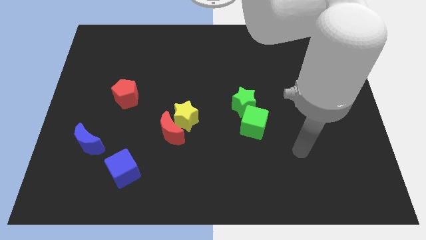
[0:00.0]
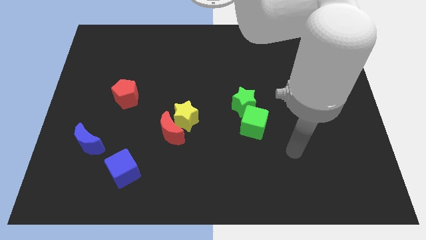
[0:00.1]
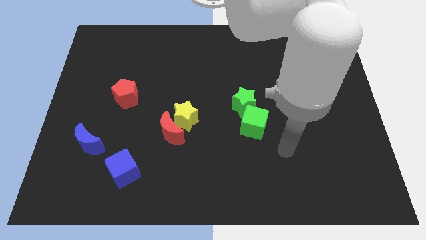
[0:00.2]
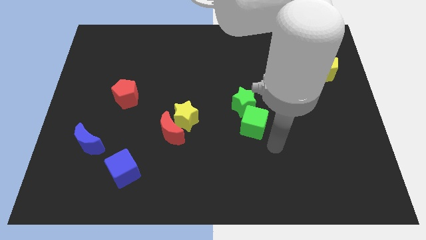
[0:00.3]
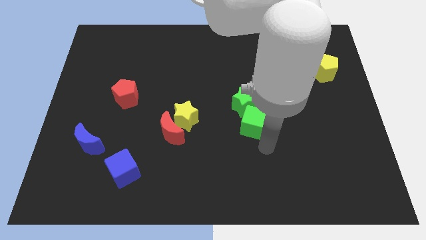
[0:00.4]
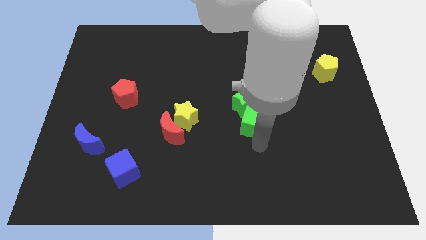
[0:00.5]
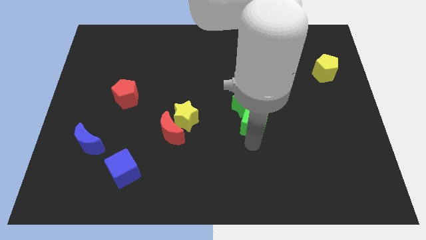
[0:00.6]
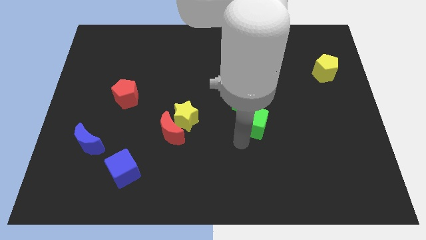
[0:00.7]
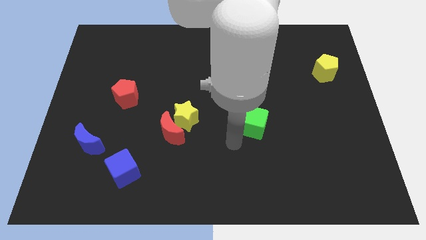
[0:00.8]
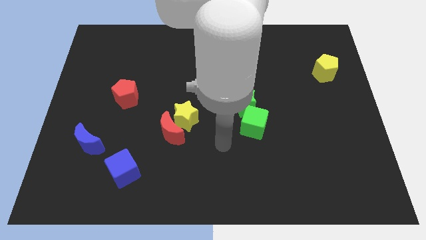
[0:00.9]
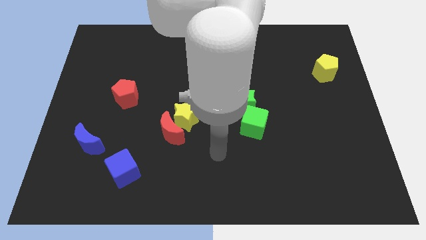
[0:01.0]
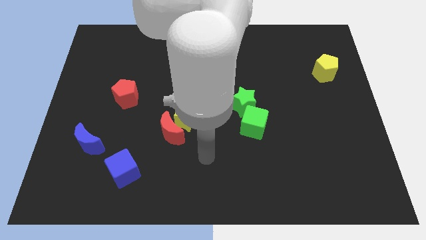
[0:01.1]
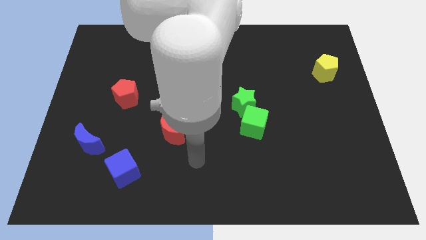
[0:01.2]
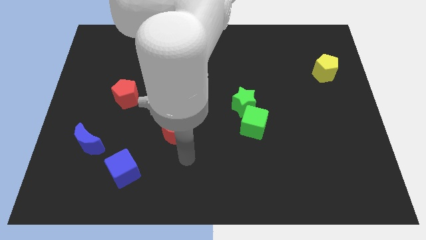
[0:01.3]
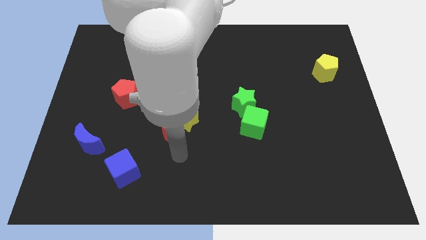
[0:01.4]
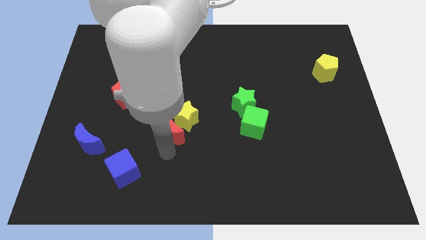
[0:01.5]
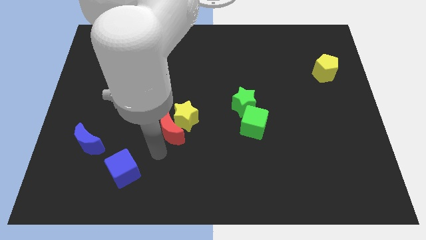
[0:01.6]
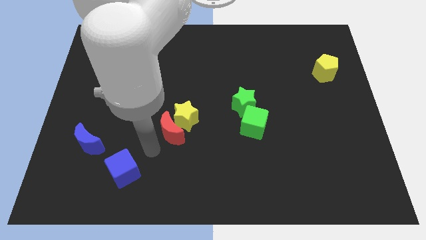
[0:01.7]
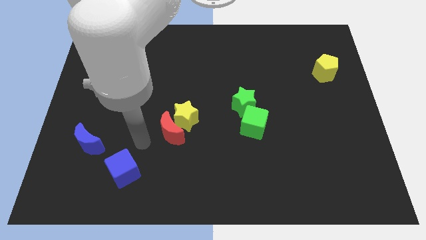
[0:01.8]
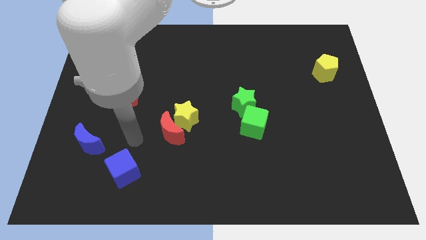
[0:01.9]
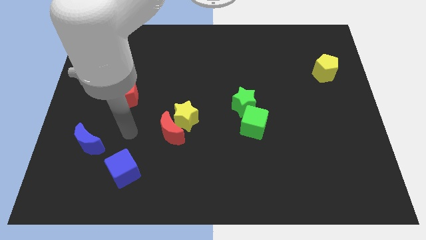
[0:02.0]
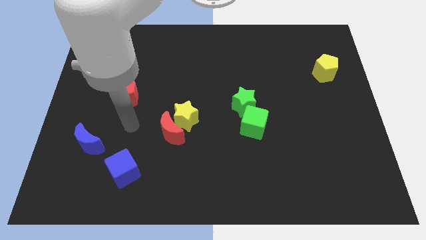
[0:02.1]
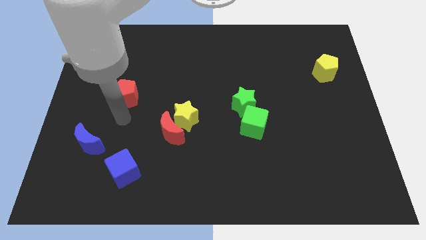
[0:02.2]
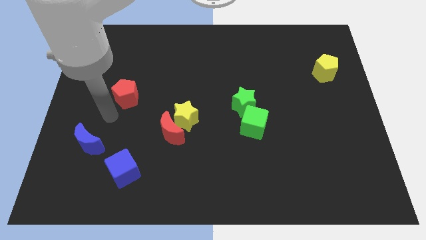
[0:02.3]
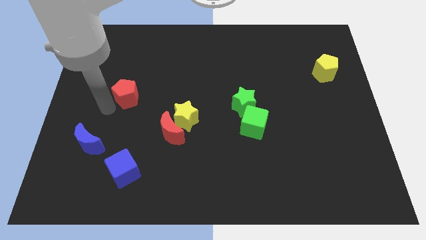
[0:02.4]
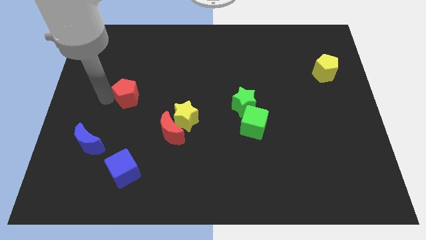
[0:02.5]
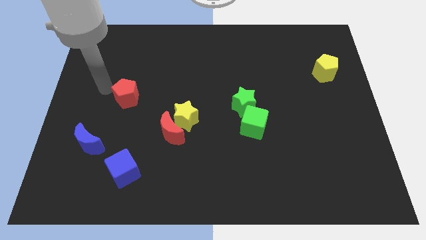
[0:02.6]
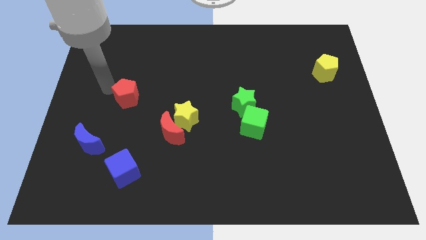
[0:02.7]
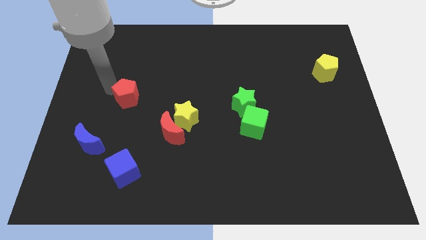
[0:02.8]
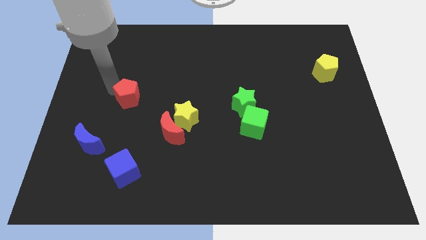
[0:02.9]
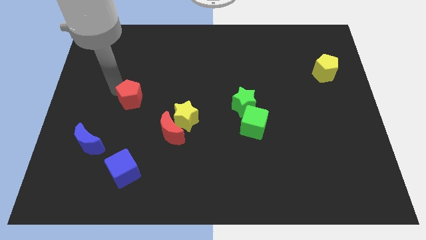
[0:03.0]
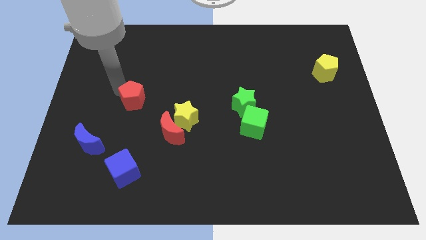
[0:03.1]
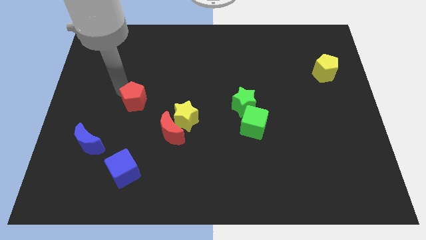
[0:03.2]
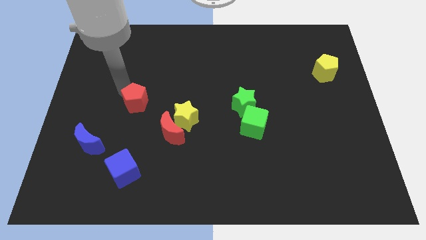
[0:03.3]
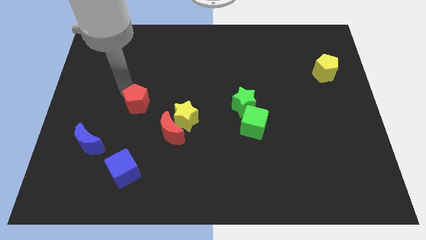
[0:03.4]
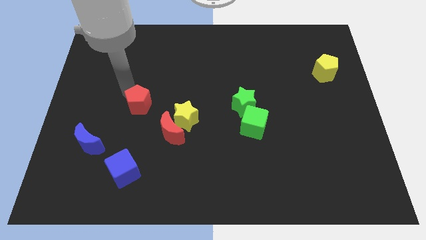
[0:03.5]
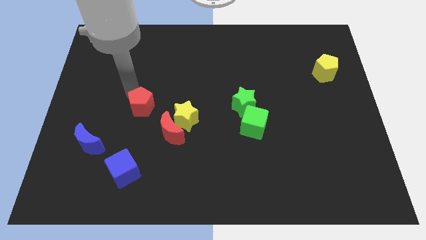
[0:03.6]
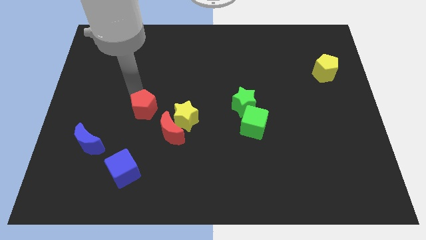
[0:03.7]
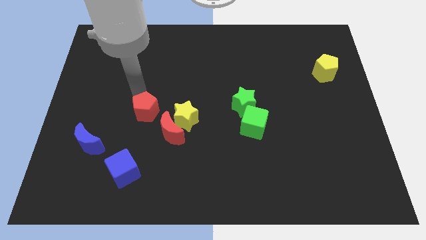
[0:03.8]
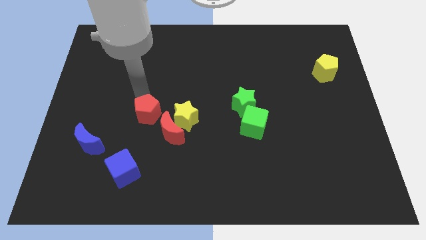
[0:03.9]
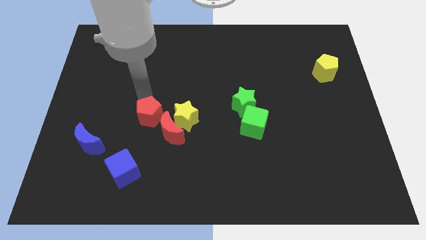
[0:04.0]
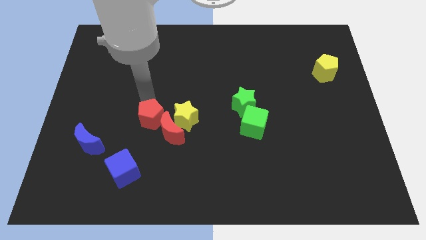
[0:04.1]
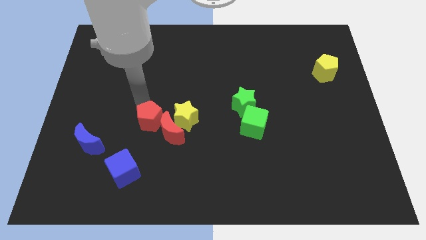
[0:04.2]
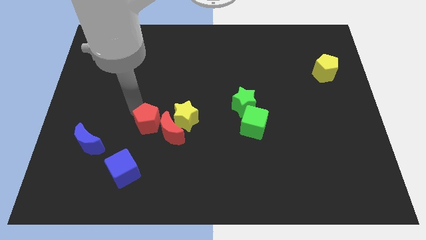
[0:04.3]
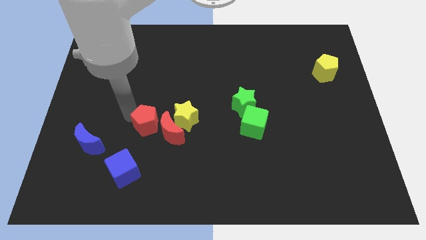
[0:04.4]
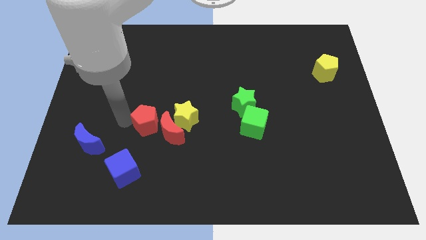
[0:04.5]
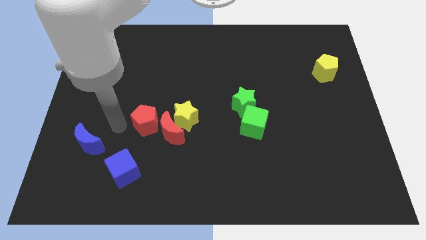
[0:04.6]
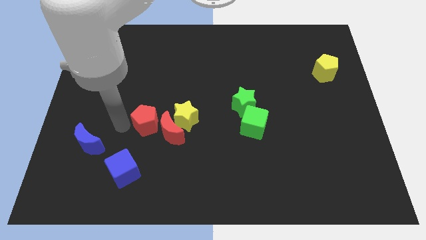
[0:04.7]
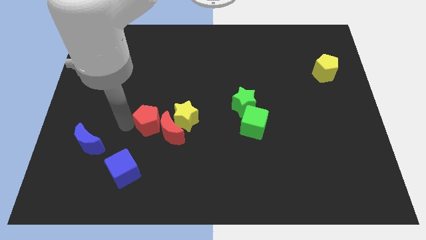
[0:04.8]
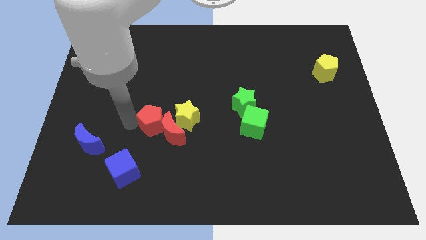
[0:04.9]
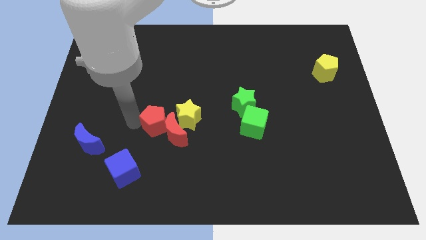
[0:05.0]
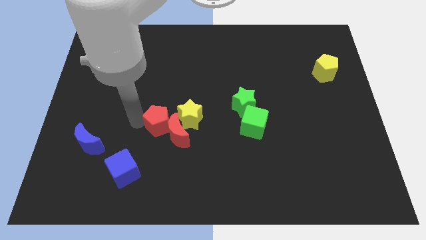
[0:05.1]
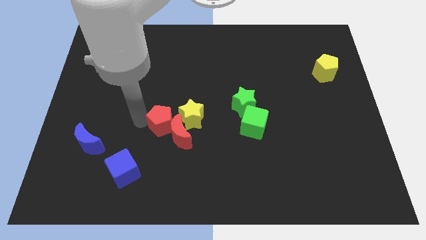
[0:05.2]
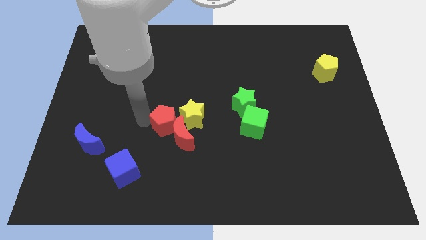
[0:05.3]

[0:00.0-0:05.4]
move the red pentagon close to the yellow star

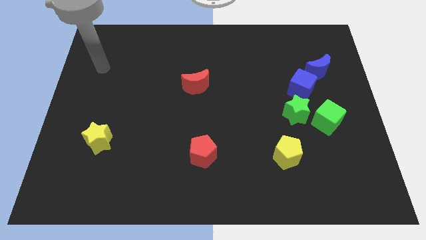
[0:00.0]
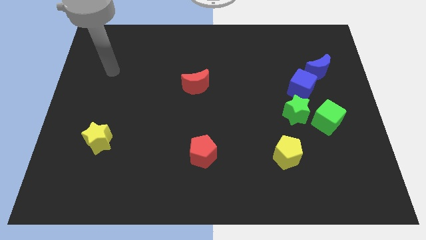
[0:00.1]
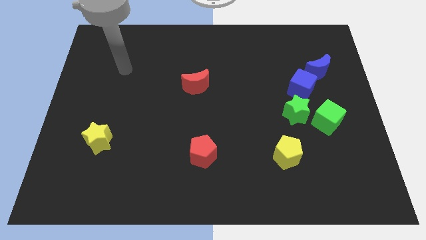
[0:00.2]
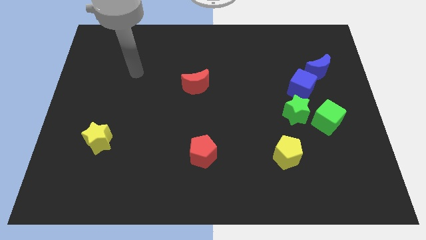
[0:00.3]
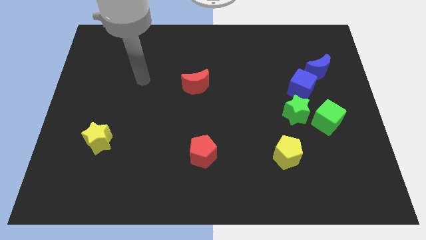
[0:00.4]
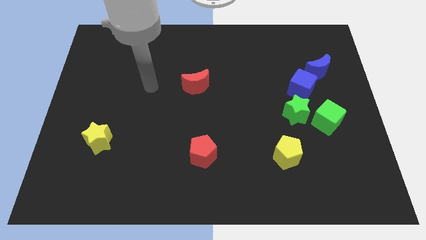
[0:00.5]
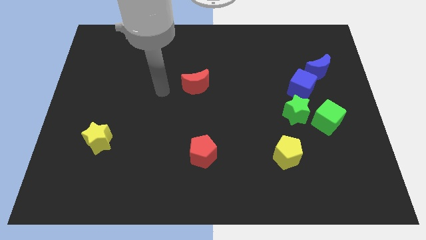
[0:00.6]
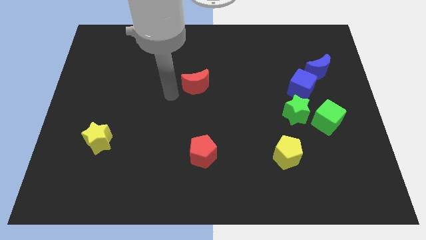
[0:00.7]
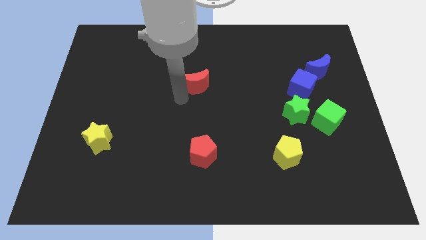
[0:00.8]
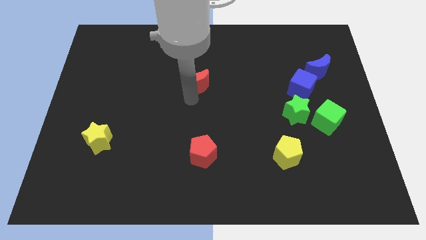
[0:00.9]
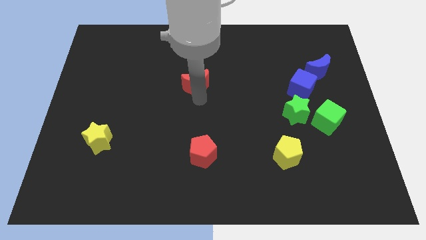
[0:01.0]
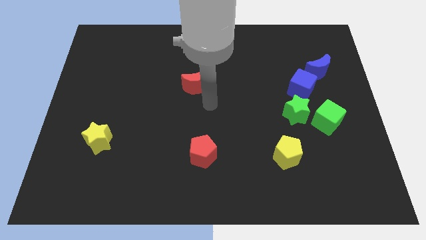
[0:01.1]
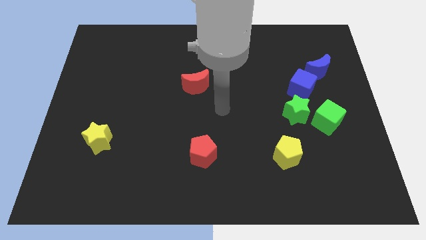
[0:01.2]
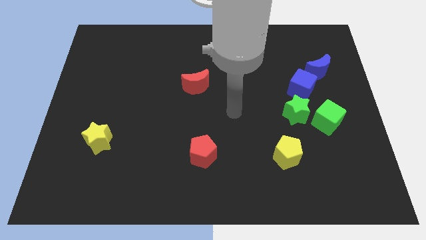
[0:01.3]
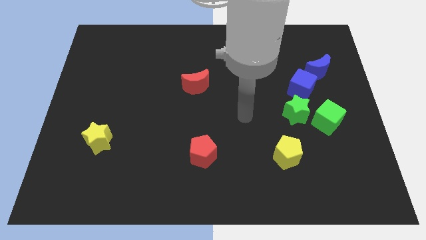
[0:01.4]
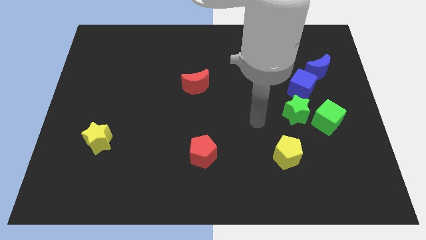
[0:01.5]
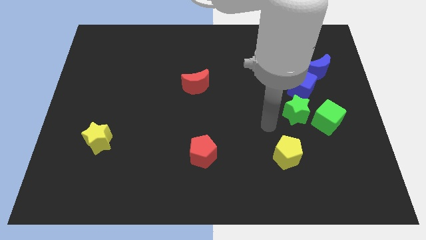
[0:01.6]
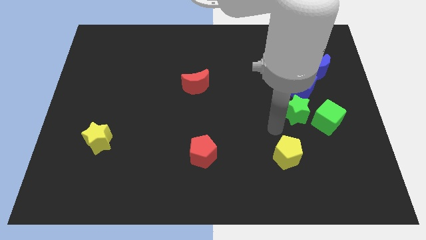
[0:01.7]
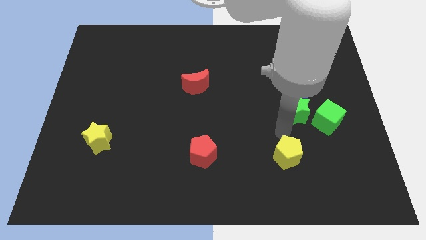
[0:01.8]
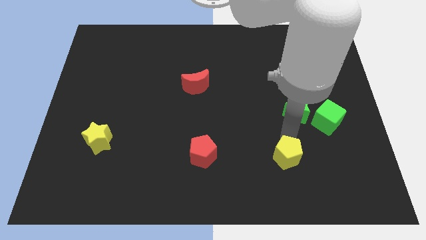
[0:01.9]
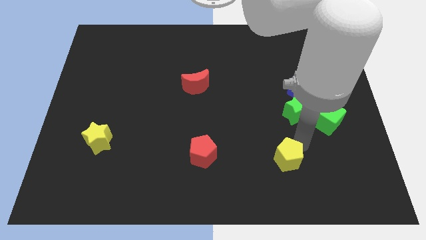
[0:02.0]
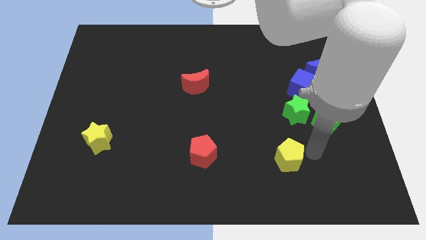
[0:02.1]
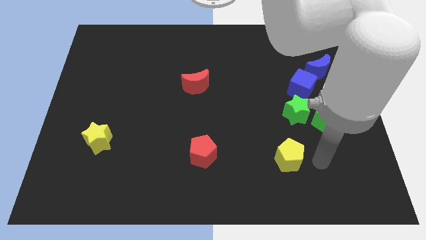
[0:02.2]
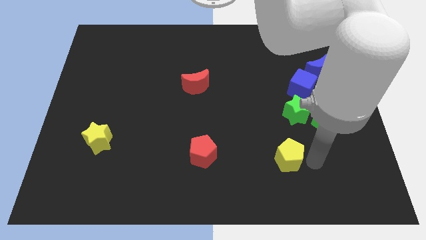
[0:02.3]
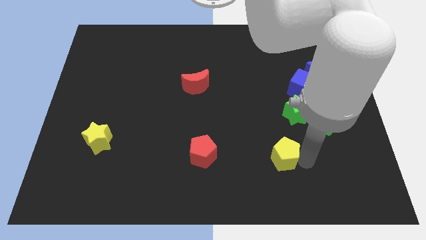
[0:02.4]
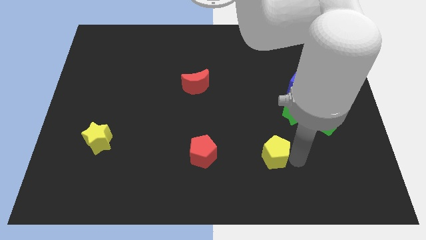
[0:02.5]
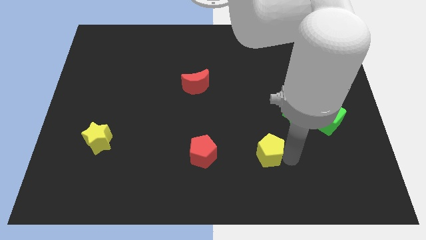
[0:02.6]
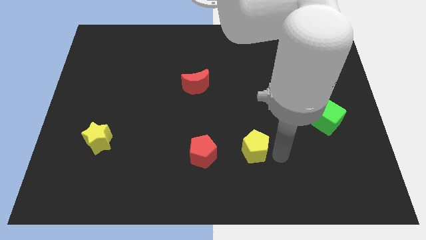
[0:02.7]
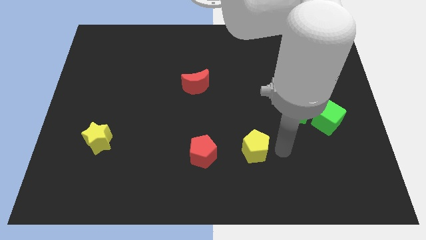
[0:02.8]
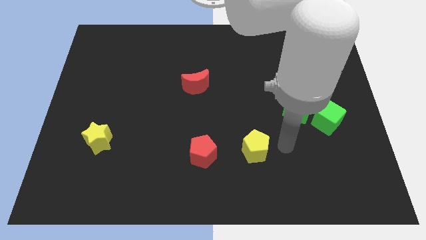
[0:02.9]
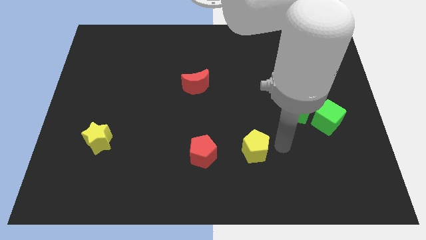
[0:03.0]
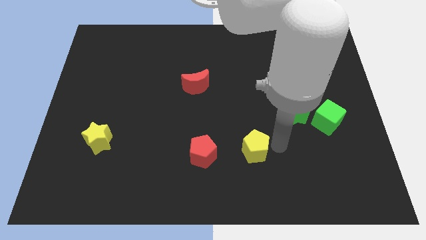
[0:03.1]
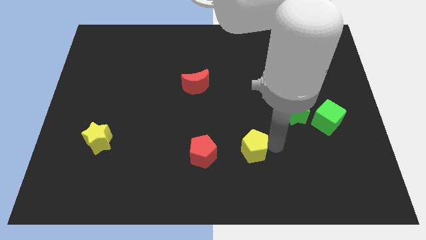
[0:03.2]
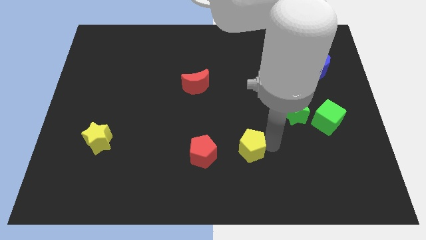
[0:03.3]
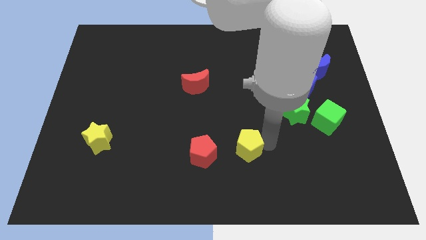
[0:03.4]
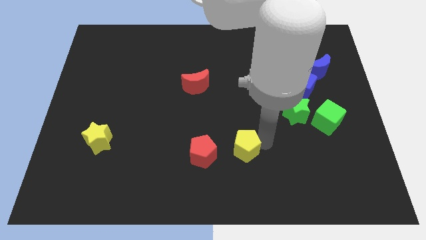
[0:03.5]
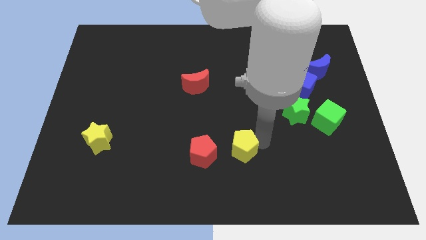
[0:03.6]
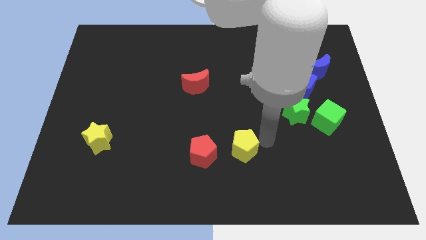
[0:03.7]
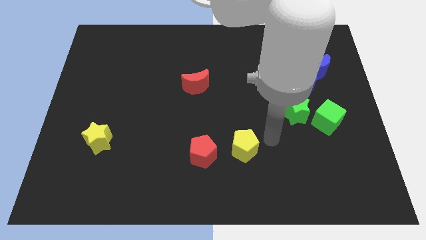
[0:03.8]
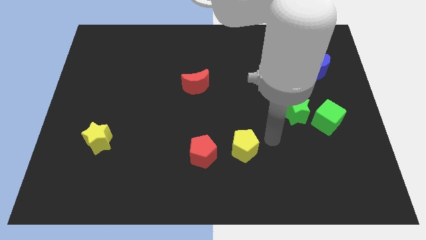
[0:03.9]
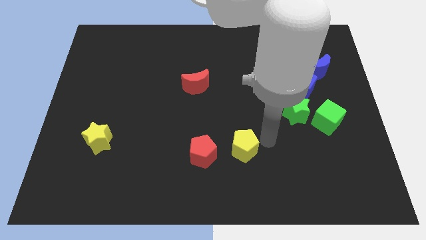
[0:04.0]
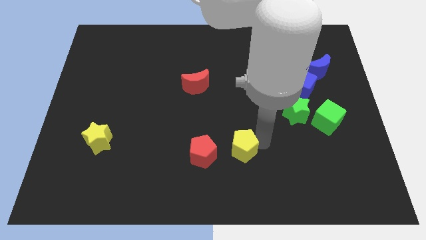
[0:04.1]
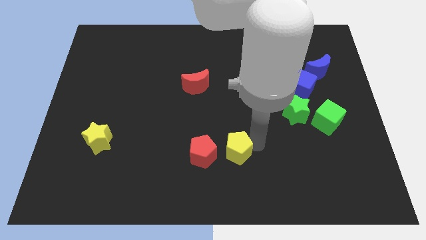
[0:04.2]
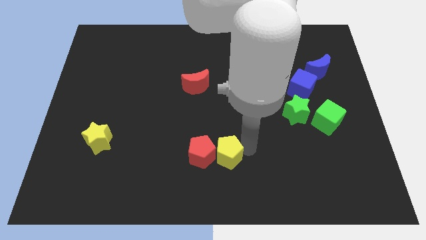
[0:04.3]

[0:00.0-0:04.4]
move the yellow pentagon close to the red pentagon
